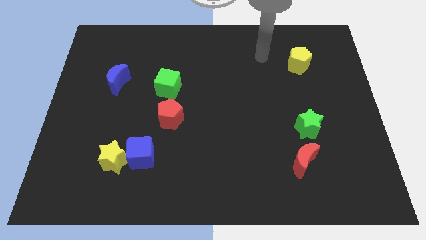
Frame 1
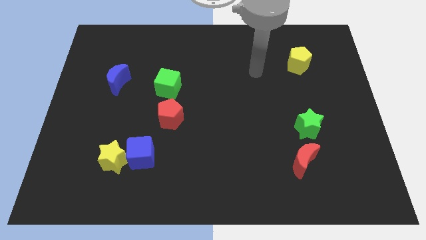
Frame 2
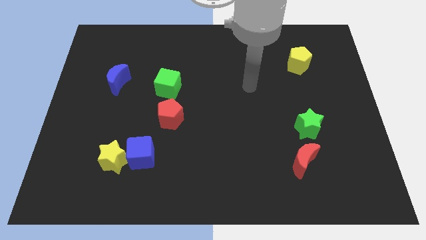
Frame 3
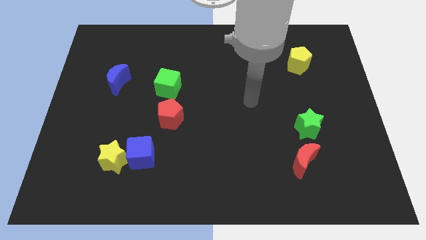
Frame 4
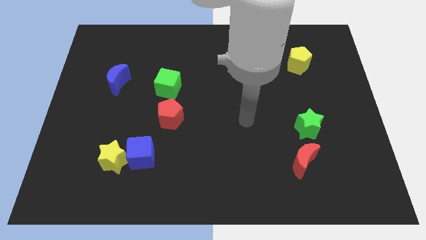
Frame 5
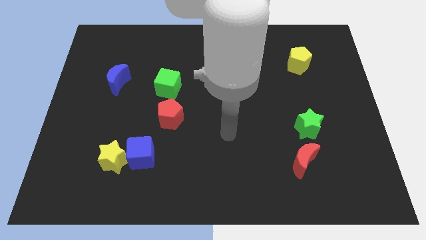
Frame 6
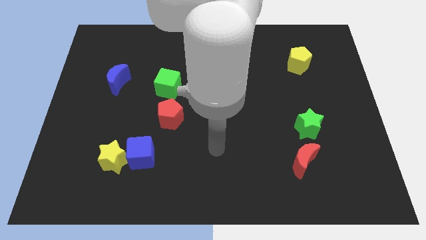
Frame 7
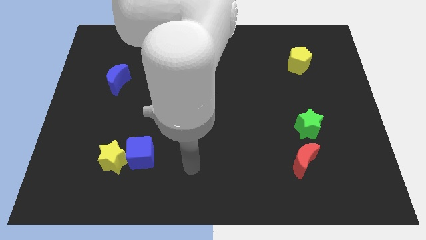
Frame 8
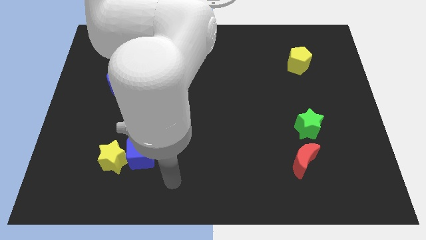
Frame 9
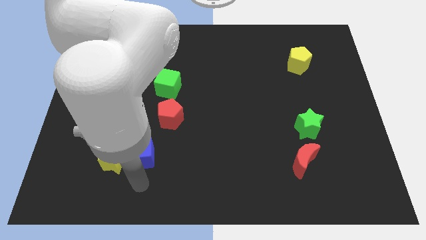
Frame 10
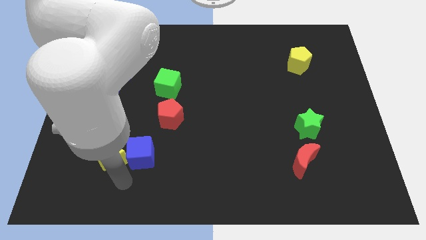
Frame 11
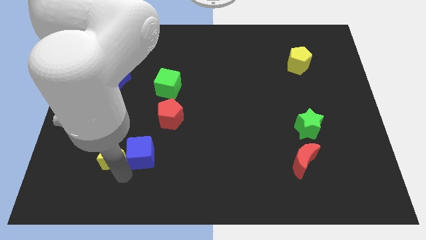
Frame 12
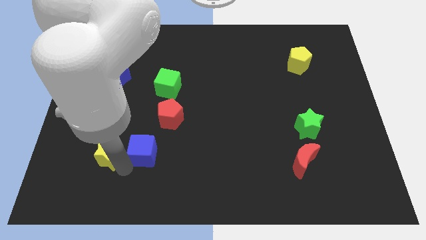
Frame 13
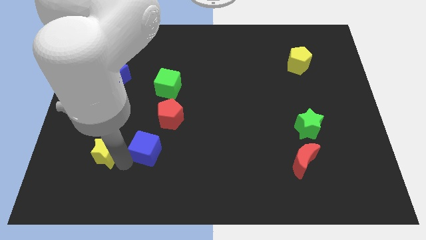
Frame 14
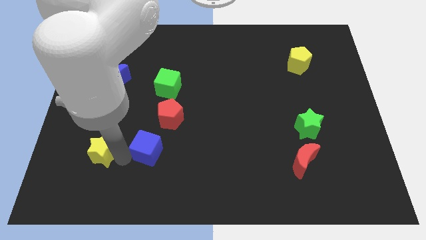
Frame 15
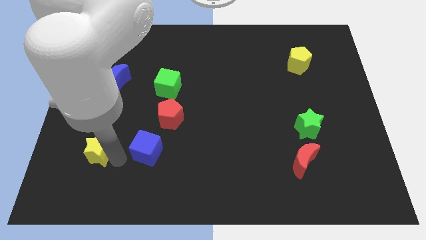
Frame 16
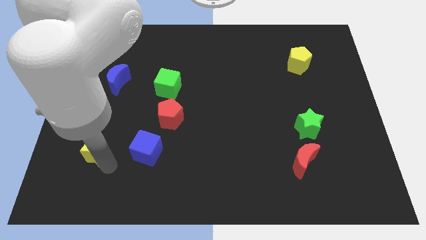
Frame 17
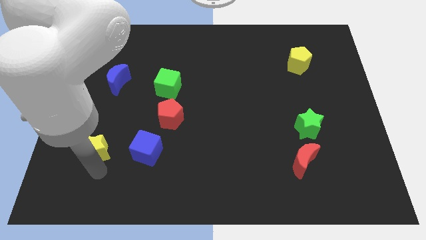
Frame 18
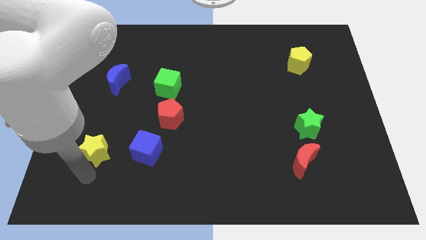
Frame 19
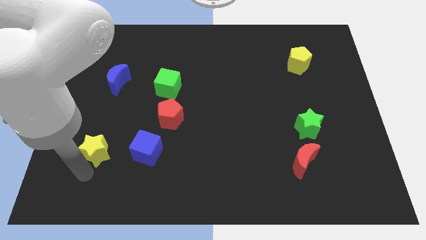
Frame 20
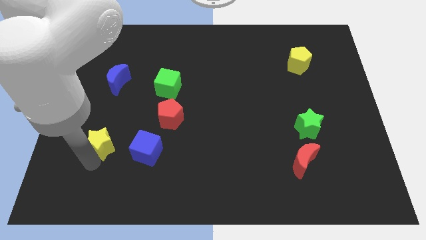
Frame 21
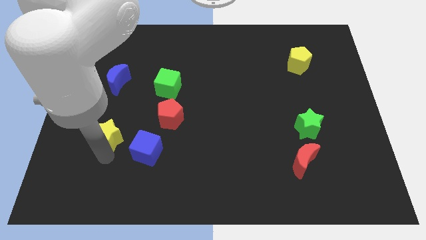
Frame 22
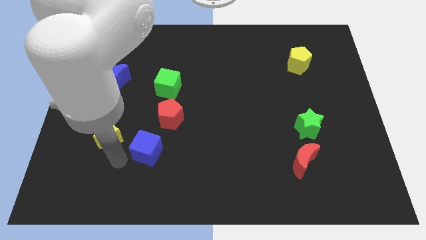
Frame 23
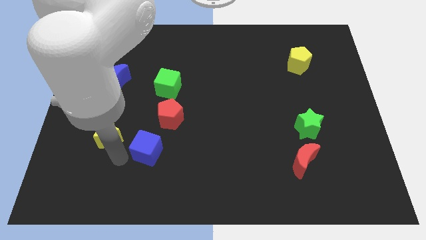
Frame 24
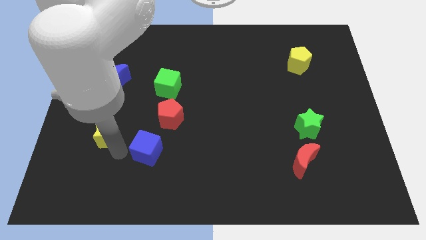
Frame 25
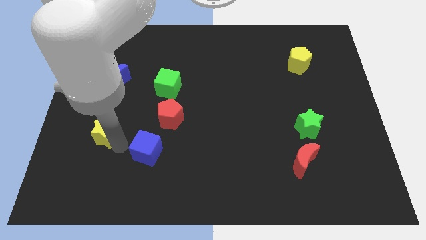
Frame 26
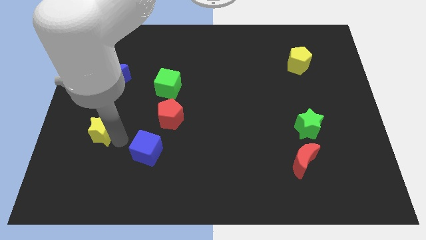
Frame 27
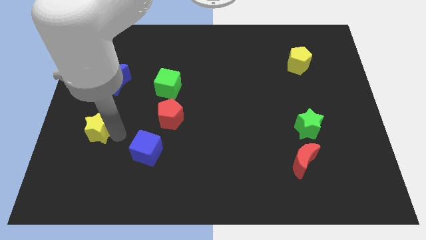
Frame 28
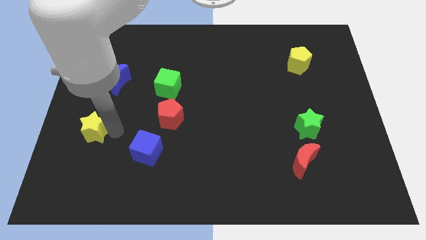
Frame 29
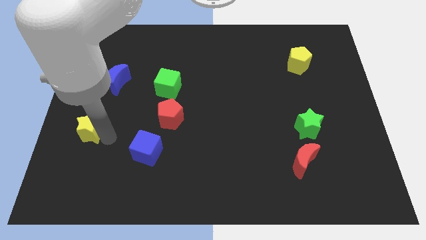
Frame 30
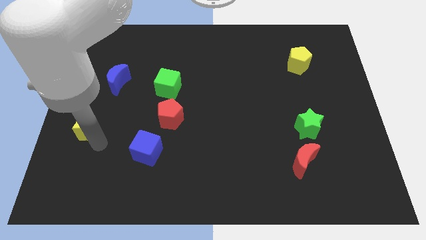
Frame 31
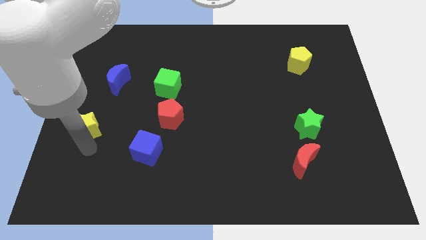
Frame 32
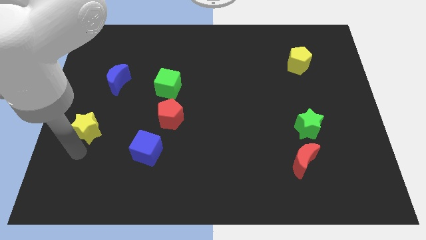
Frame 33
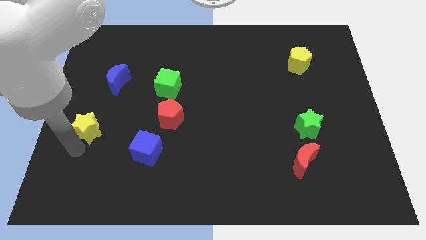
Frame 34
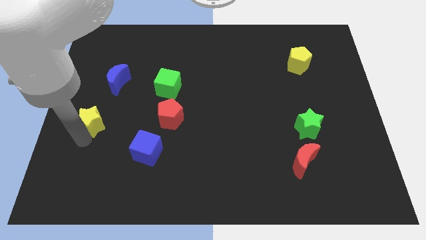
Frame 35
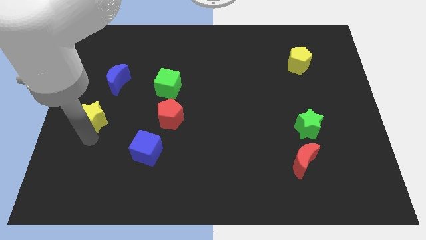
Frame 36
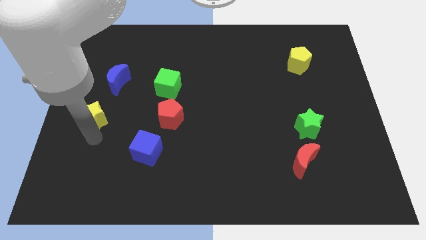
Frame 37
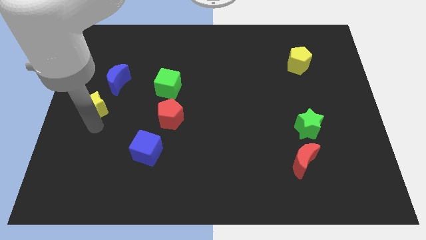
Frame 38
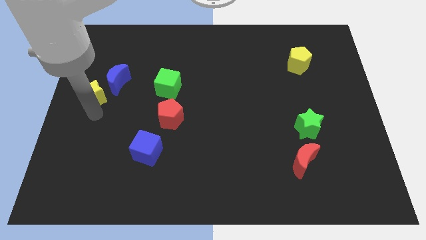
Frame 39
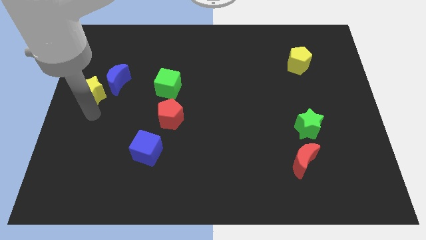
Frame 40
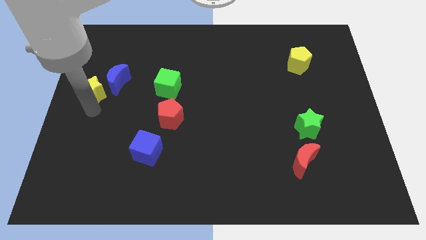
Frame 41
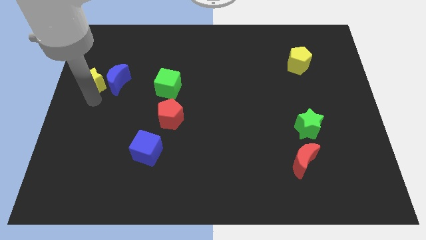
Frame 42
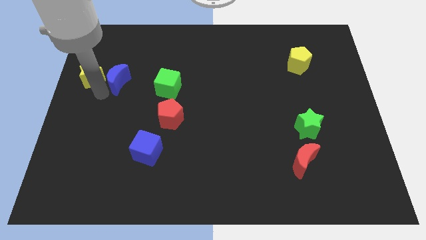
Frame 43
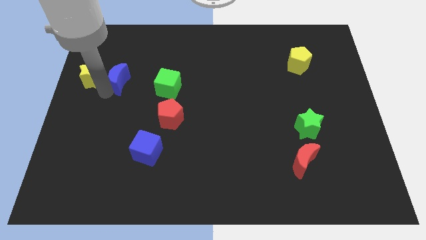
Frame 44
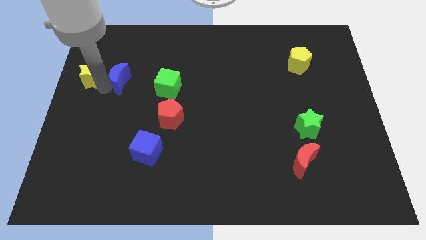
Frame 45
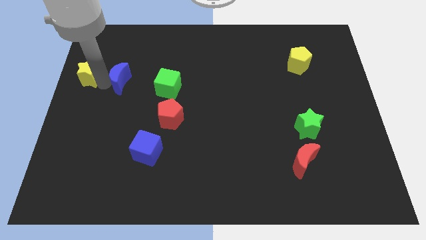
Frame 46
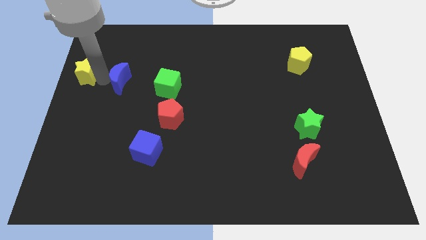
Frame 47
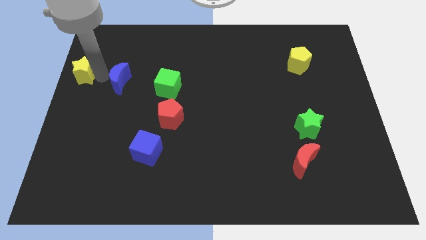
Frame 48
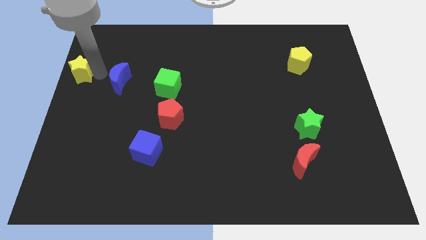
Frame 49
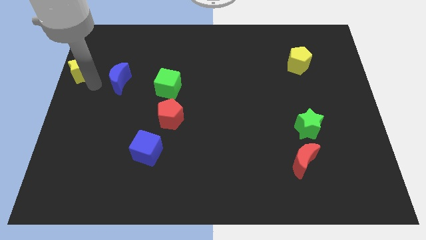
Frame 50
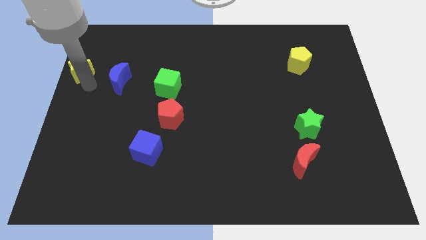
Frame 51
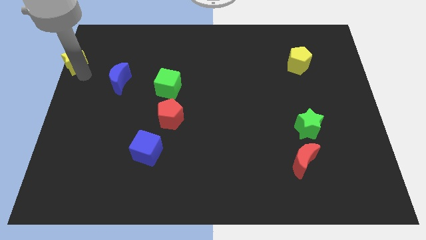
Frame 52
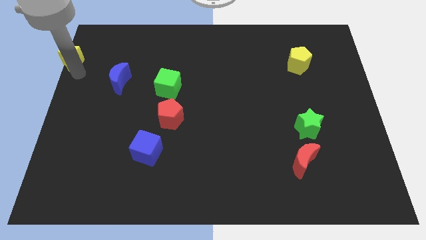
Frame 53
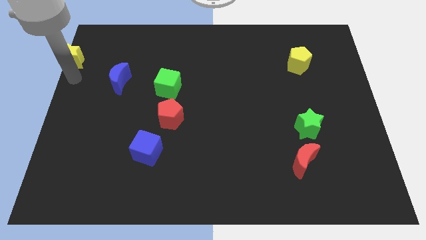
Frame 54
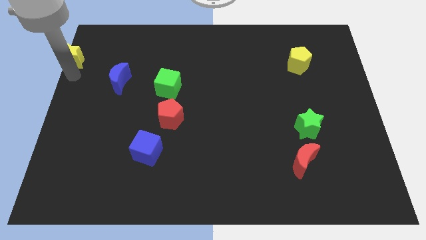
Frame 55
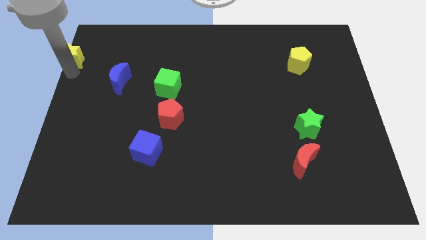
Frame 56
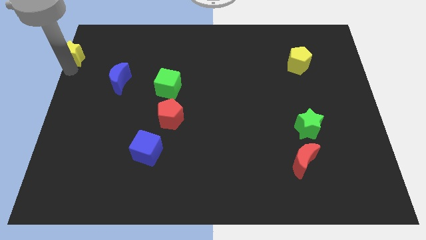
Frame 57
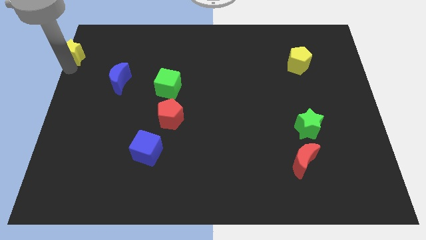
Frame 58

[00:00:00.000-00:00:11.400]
put the yellow star to the upper left corner

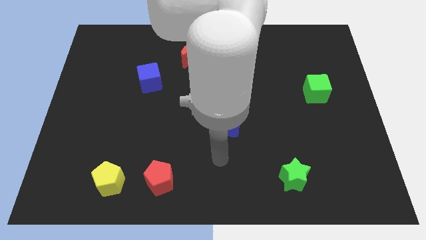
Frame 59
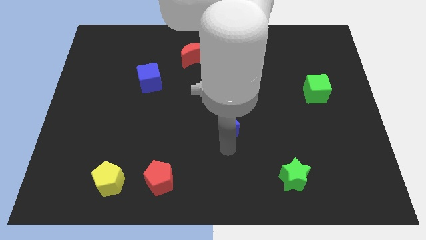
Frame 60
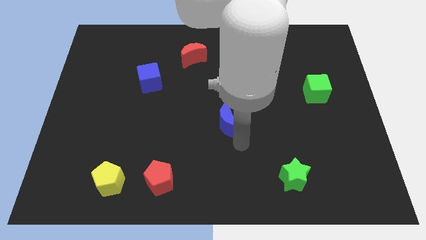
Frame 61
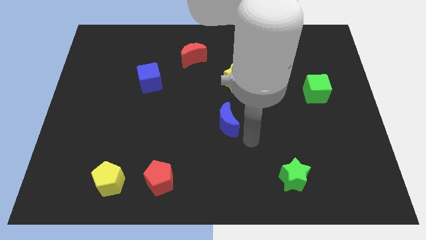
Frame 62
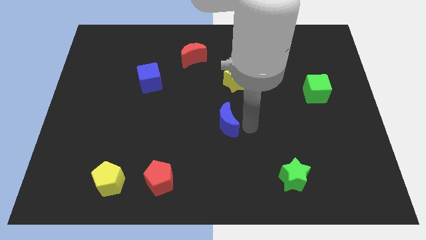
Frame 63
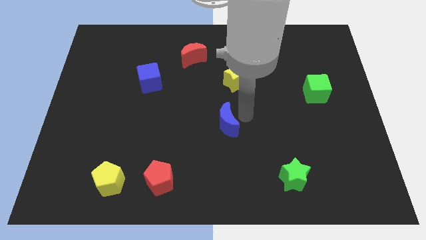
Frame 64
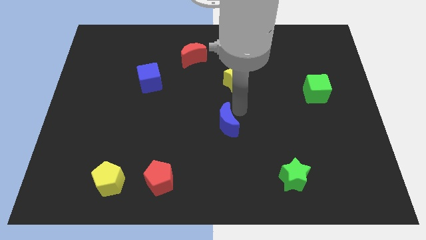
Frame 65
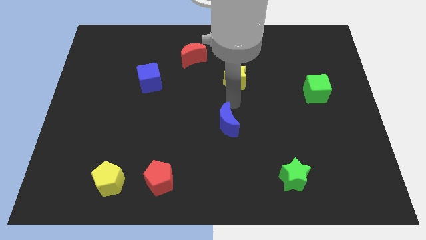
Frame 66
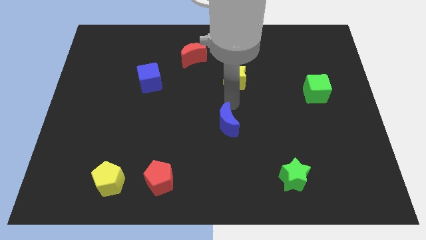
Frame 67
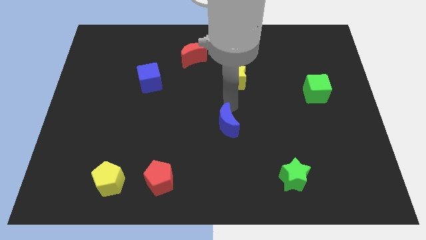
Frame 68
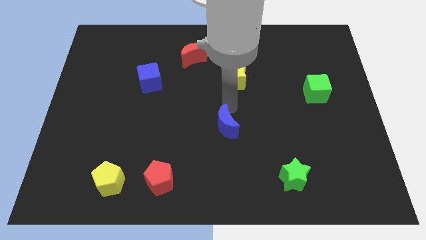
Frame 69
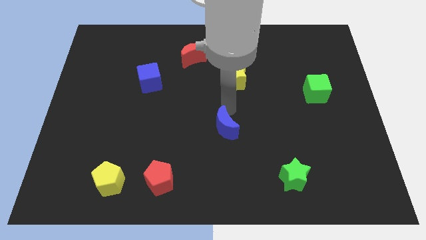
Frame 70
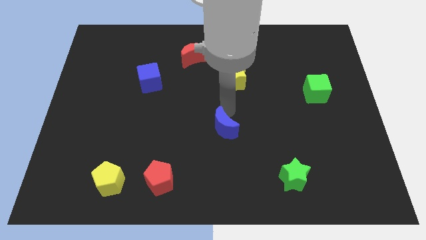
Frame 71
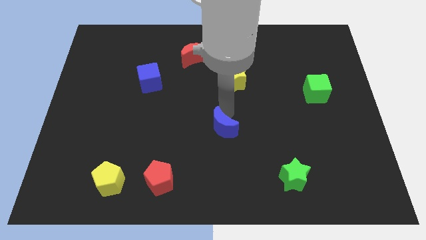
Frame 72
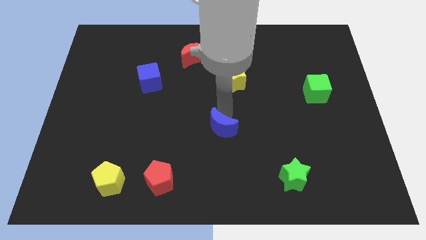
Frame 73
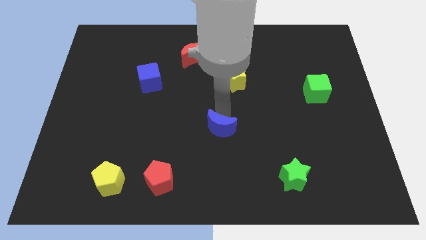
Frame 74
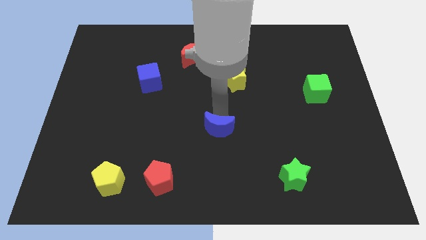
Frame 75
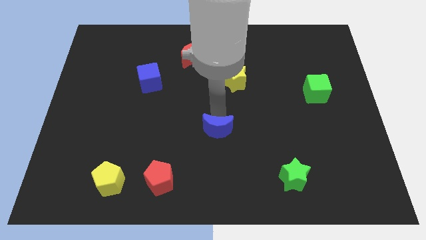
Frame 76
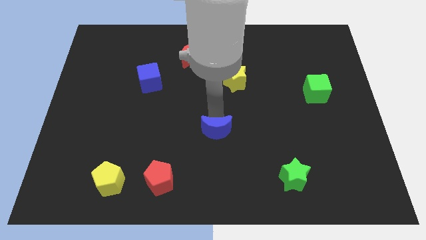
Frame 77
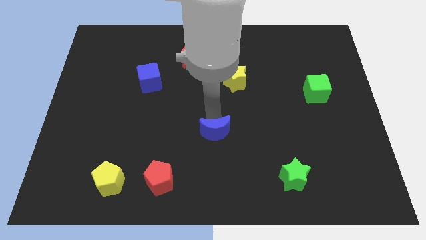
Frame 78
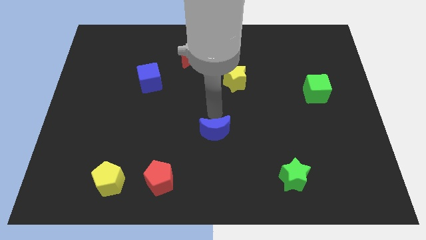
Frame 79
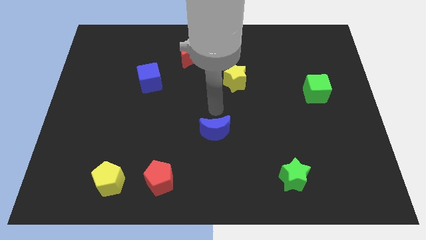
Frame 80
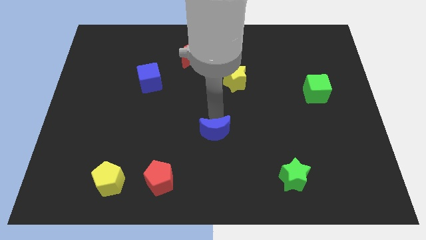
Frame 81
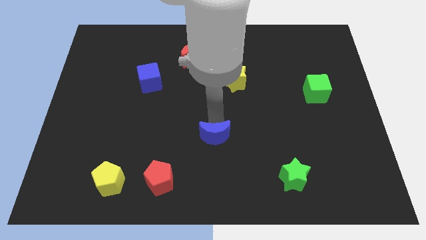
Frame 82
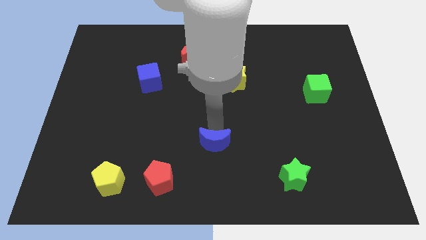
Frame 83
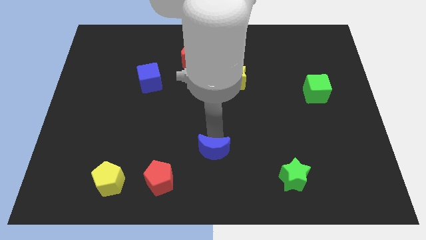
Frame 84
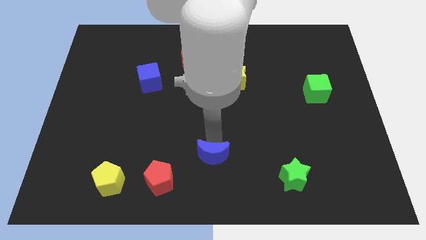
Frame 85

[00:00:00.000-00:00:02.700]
slide the blue moon to the bottom
